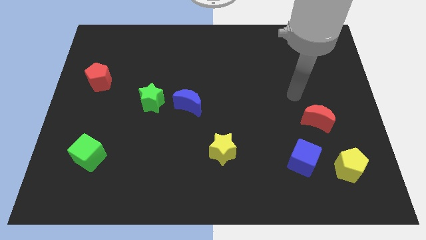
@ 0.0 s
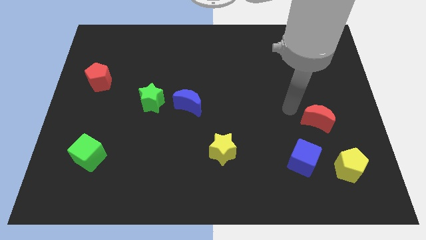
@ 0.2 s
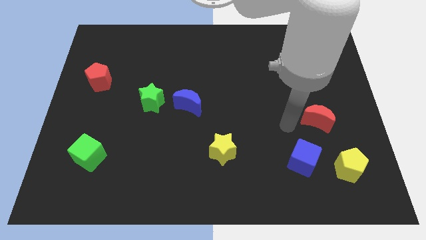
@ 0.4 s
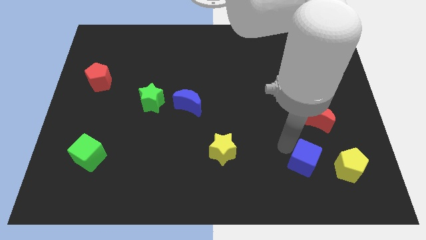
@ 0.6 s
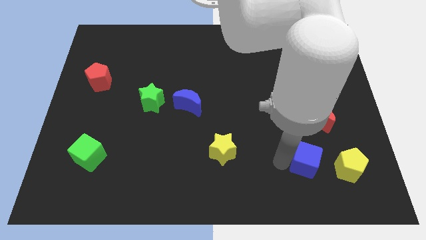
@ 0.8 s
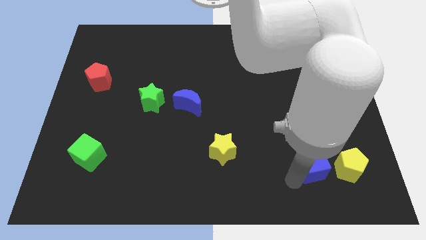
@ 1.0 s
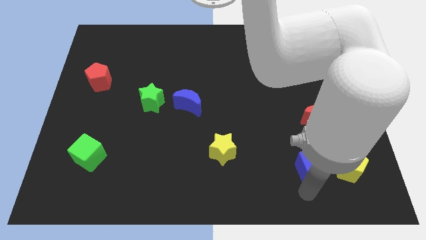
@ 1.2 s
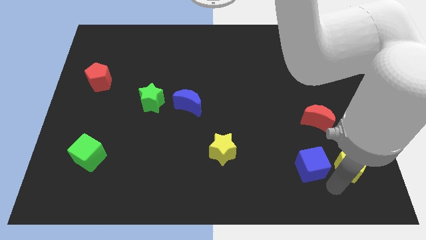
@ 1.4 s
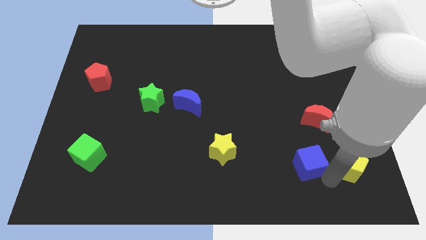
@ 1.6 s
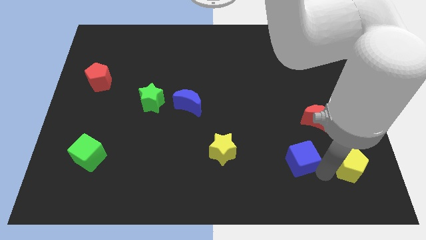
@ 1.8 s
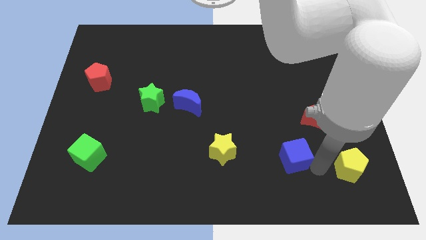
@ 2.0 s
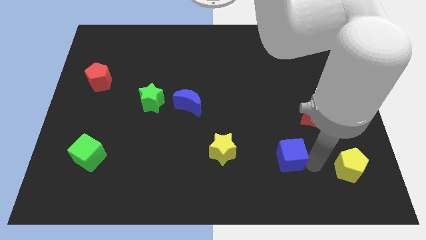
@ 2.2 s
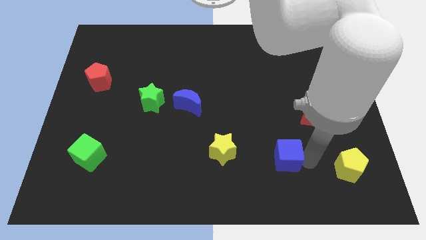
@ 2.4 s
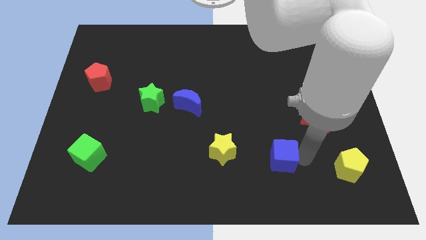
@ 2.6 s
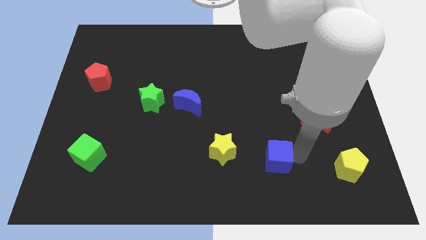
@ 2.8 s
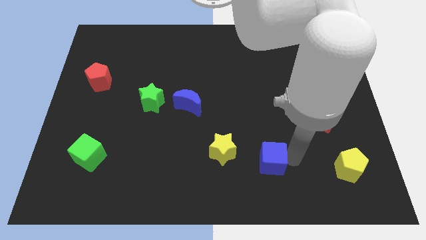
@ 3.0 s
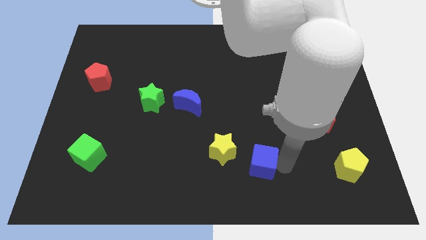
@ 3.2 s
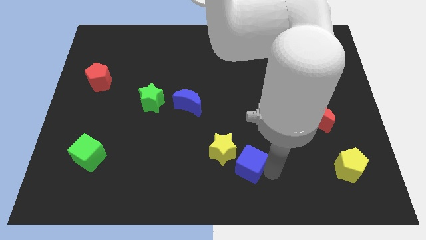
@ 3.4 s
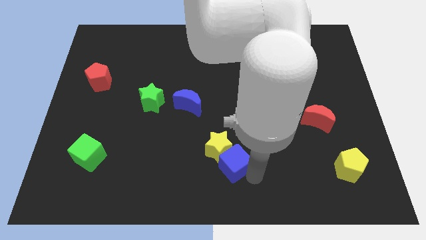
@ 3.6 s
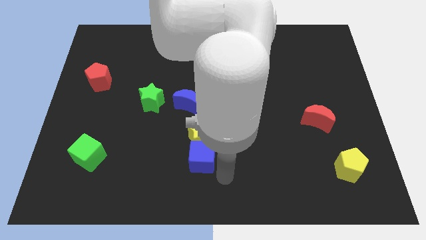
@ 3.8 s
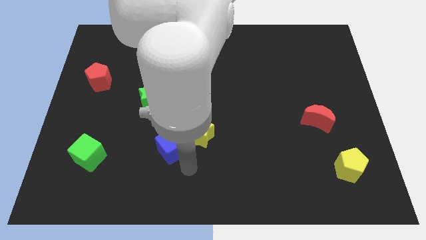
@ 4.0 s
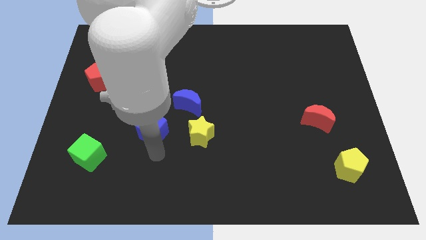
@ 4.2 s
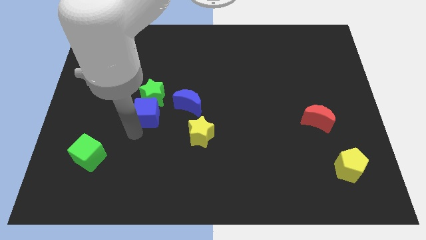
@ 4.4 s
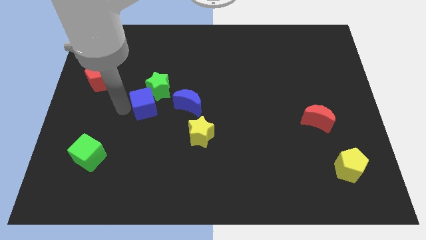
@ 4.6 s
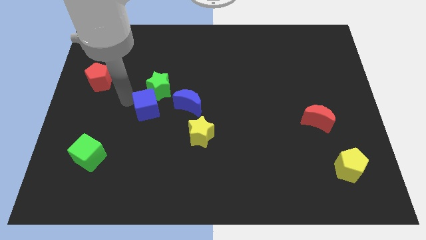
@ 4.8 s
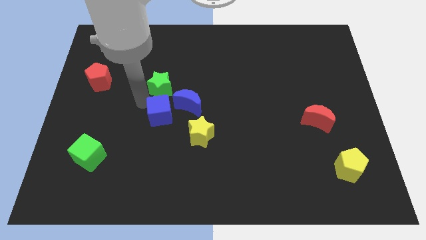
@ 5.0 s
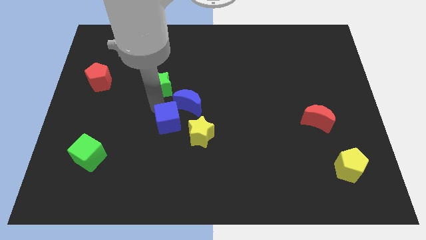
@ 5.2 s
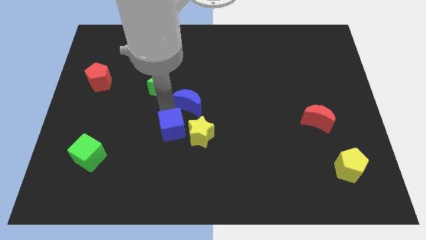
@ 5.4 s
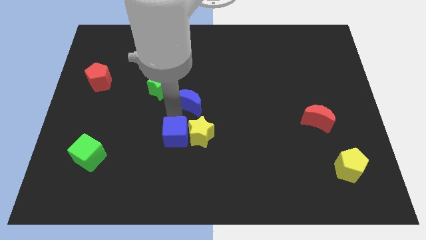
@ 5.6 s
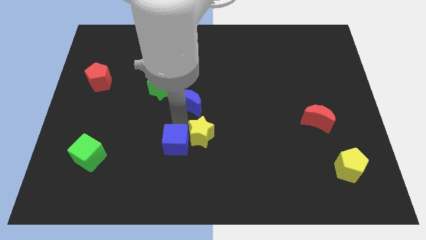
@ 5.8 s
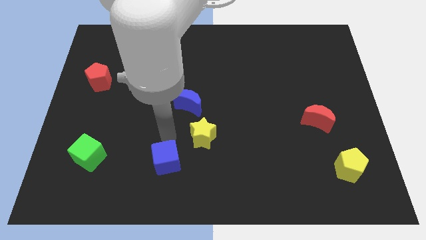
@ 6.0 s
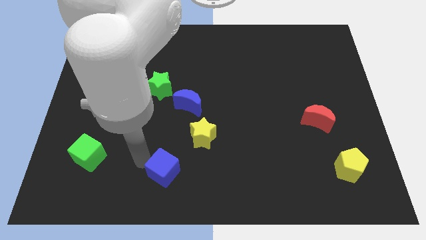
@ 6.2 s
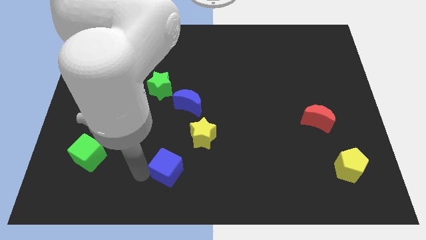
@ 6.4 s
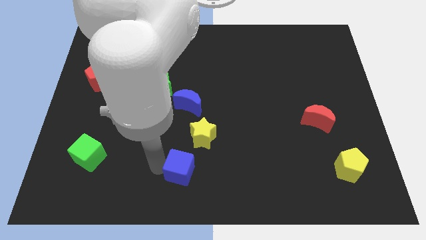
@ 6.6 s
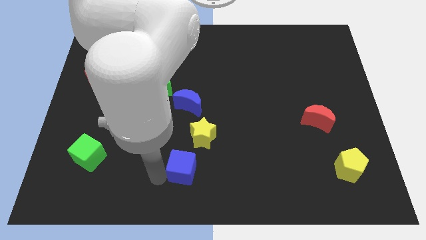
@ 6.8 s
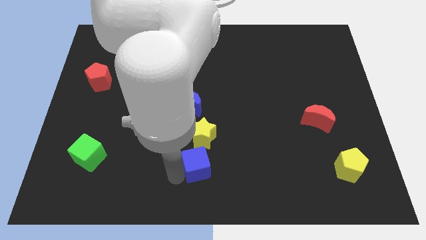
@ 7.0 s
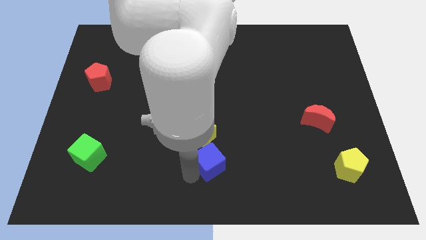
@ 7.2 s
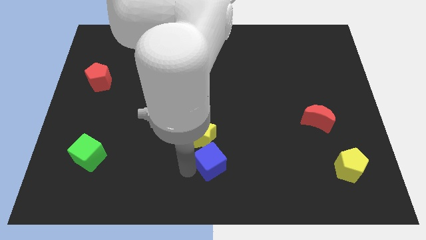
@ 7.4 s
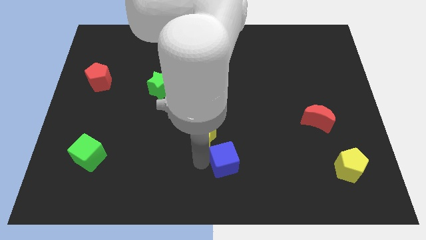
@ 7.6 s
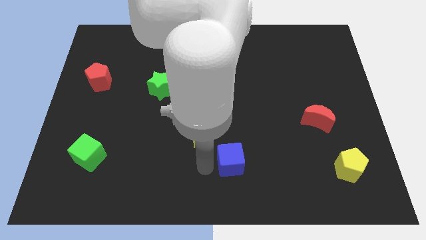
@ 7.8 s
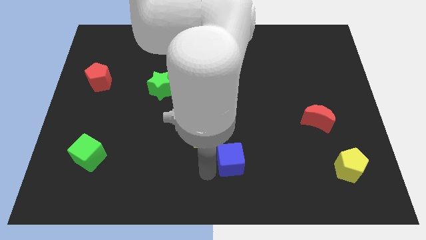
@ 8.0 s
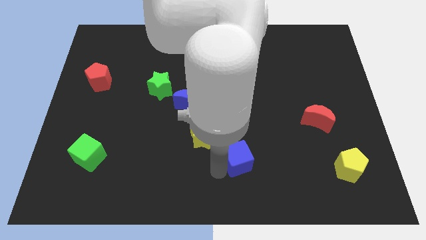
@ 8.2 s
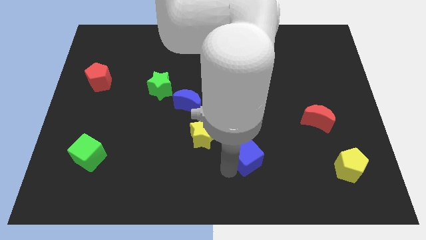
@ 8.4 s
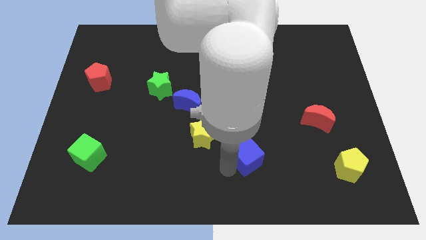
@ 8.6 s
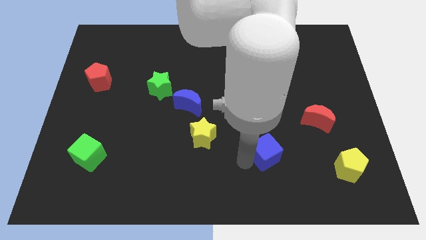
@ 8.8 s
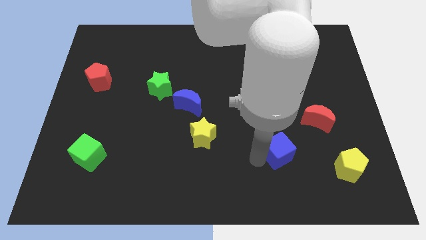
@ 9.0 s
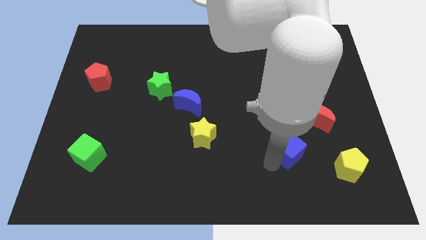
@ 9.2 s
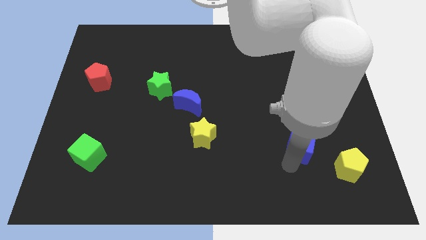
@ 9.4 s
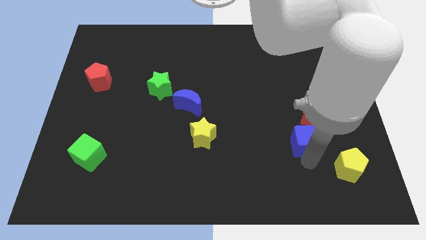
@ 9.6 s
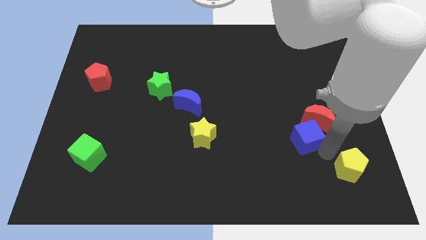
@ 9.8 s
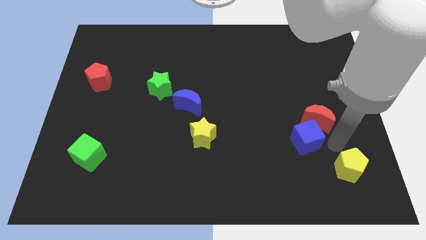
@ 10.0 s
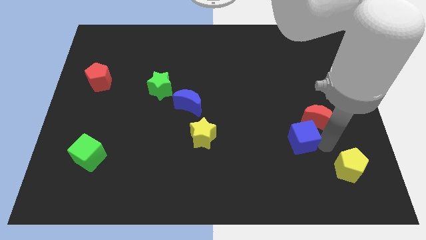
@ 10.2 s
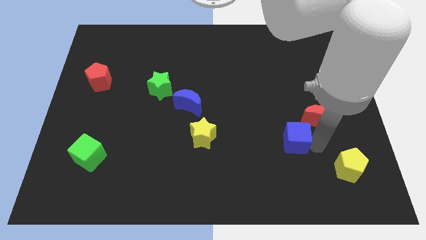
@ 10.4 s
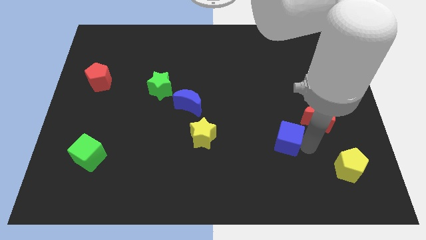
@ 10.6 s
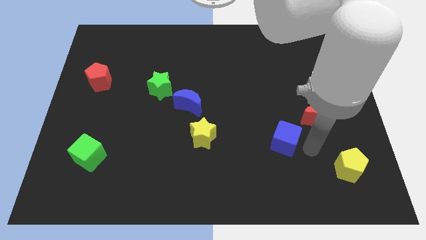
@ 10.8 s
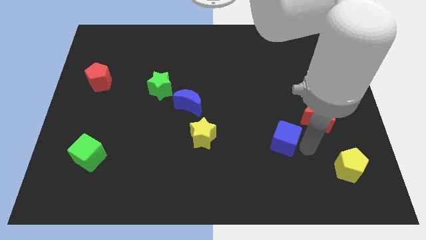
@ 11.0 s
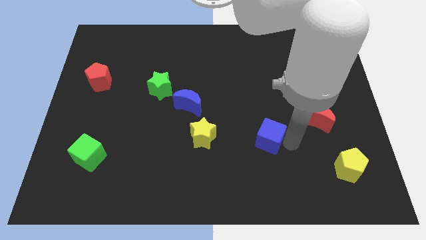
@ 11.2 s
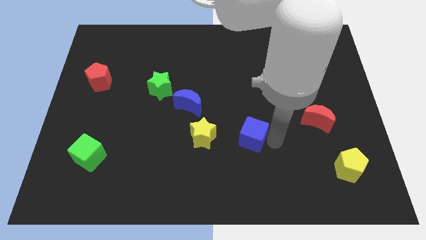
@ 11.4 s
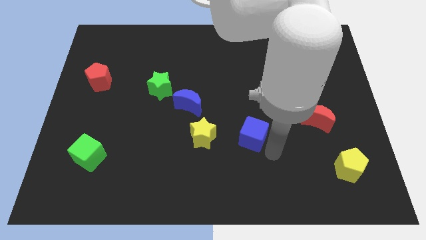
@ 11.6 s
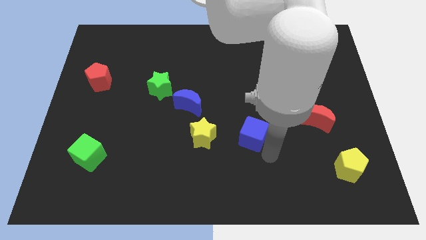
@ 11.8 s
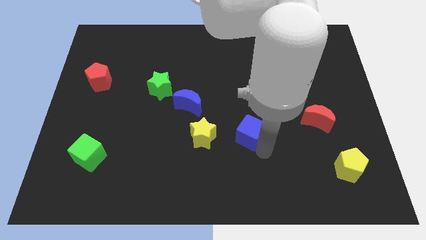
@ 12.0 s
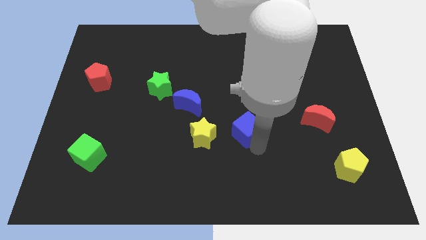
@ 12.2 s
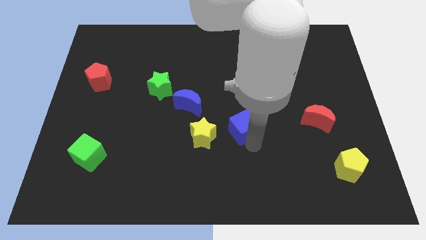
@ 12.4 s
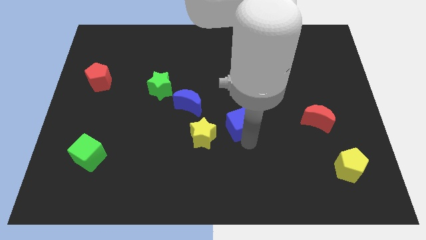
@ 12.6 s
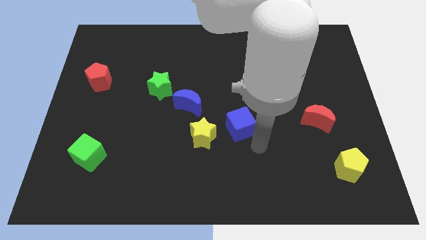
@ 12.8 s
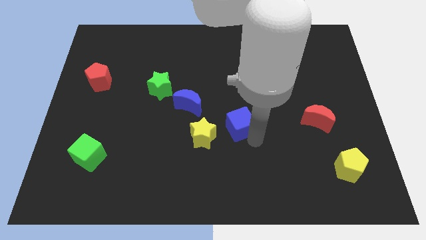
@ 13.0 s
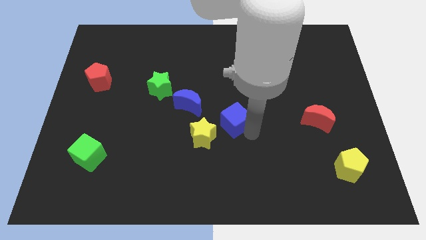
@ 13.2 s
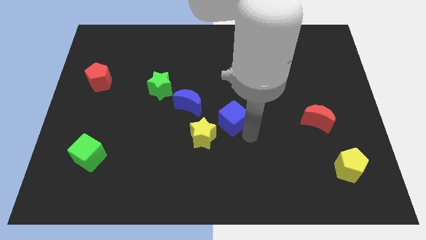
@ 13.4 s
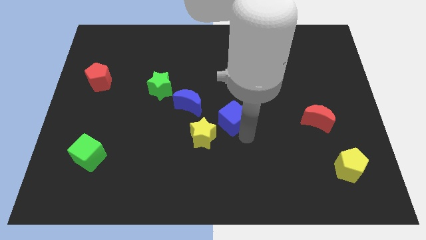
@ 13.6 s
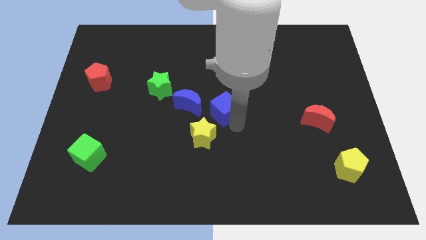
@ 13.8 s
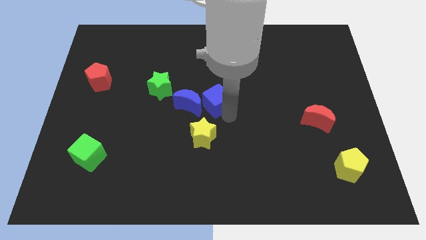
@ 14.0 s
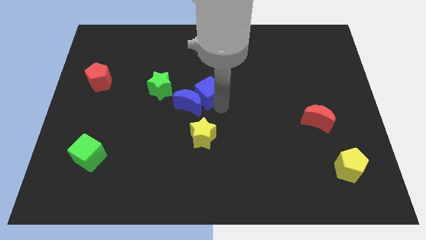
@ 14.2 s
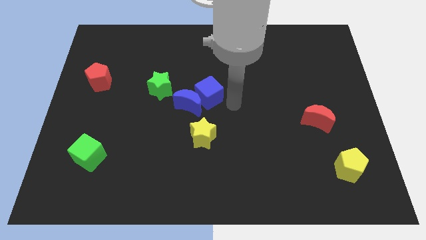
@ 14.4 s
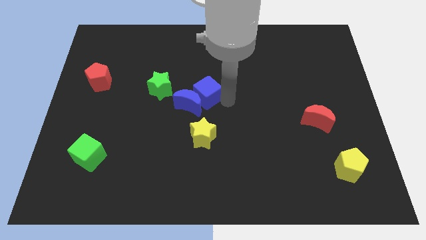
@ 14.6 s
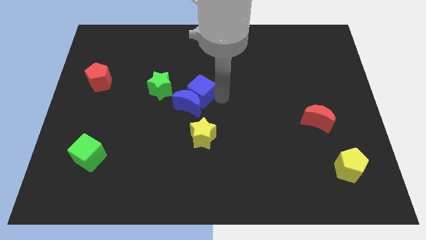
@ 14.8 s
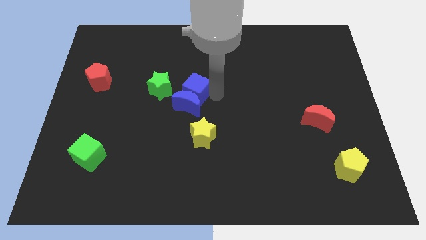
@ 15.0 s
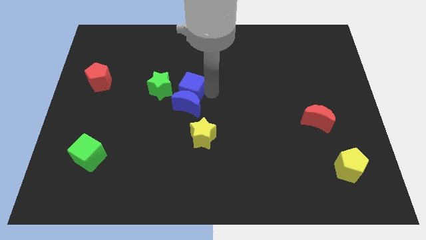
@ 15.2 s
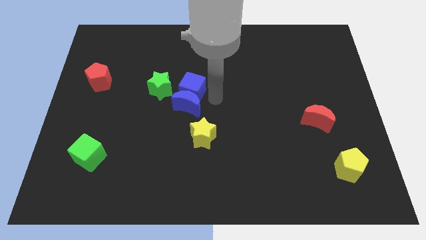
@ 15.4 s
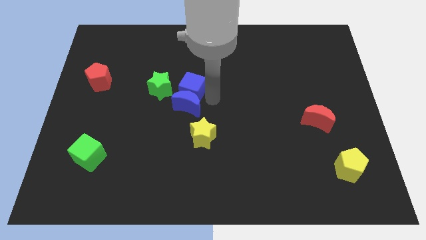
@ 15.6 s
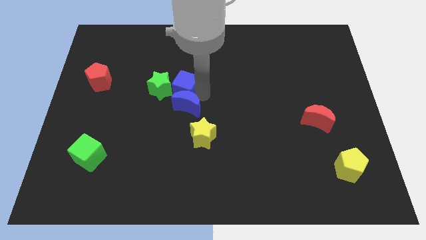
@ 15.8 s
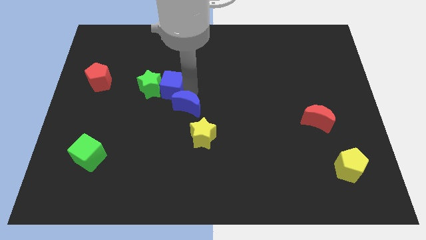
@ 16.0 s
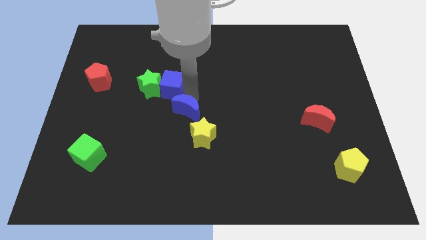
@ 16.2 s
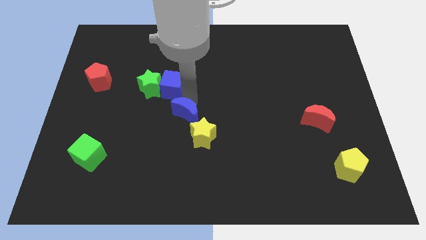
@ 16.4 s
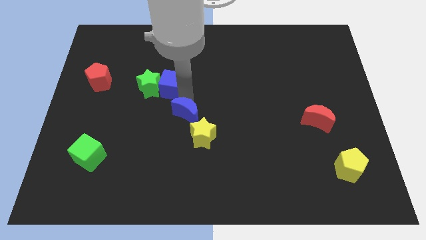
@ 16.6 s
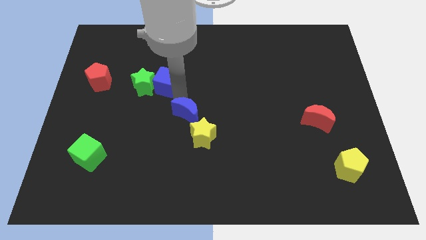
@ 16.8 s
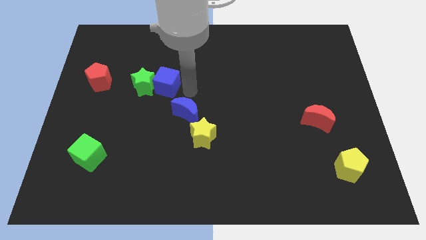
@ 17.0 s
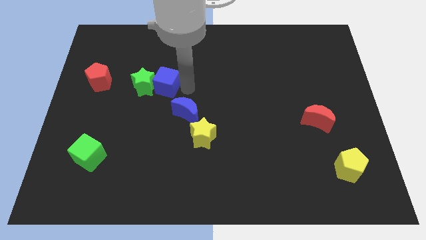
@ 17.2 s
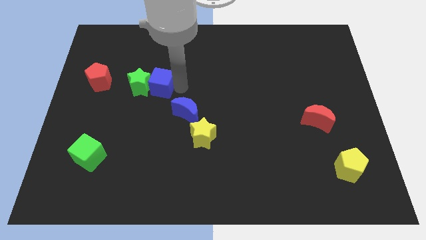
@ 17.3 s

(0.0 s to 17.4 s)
slide the blue cube to the right side of the red pentagon
